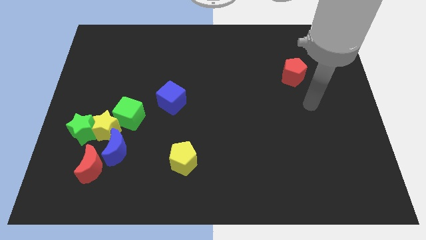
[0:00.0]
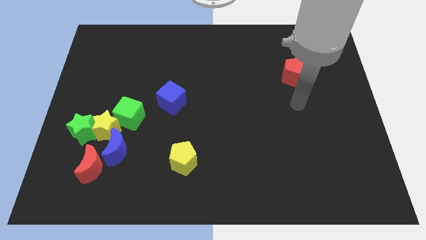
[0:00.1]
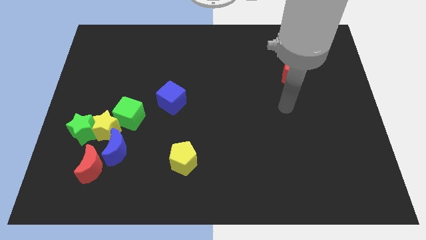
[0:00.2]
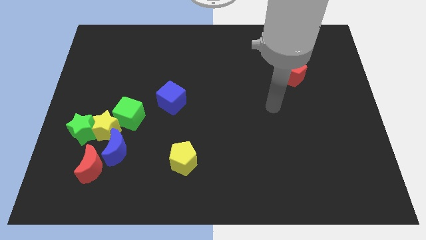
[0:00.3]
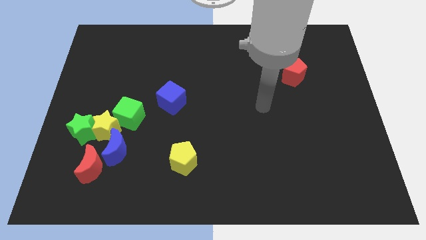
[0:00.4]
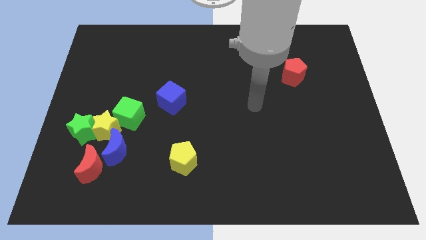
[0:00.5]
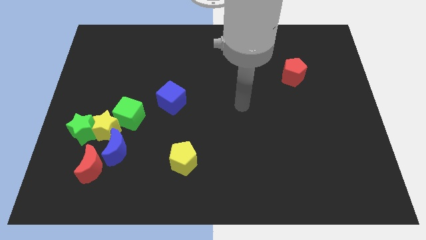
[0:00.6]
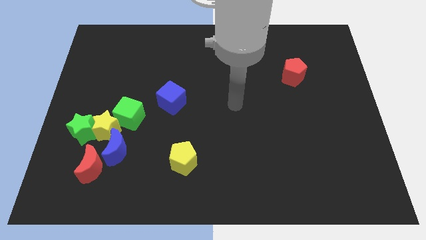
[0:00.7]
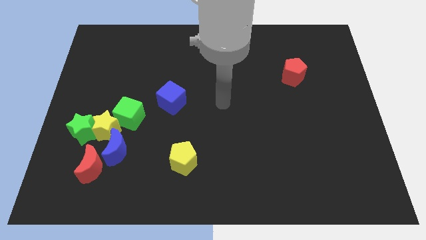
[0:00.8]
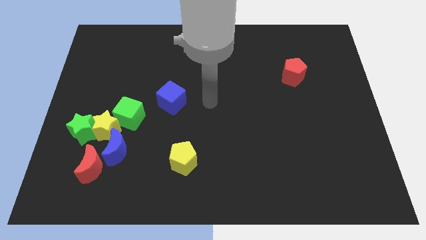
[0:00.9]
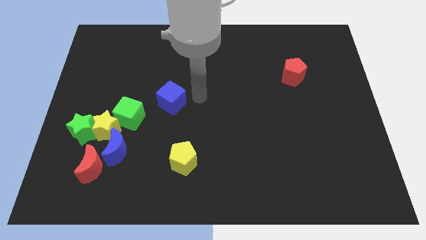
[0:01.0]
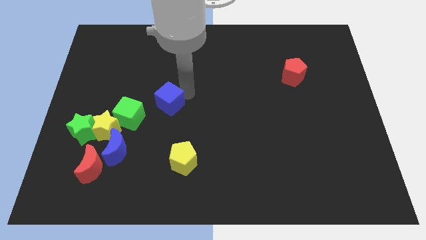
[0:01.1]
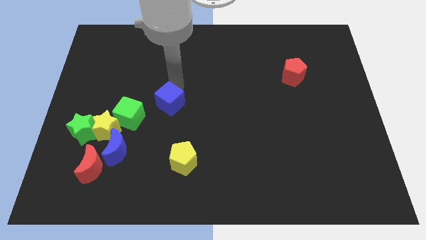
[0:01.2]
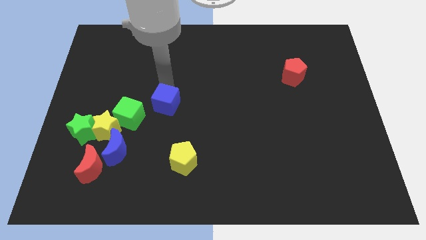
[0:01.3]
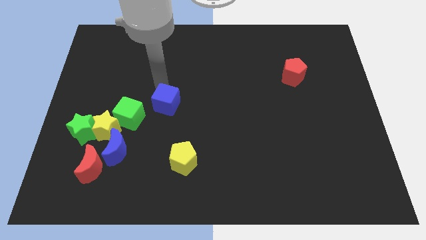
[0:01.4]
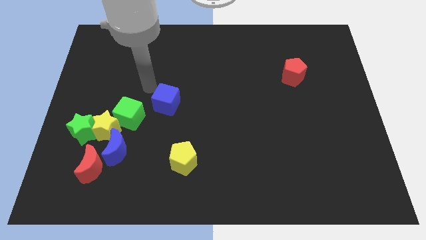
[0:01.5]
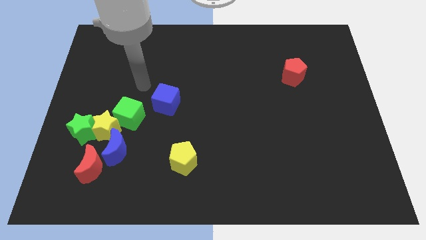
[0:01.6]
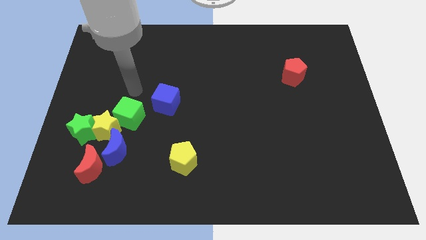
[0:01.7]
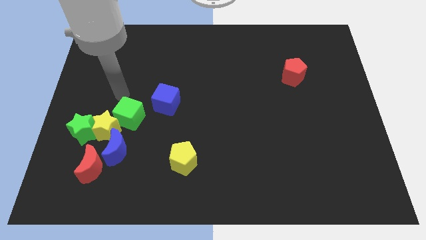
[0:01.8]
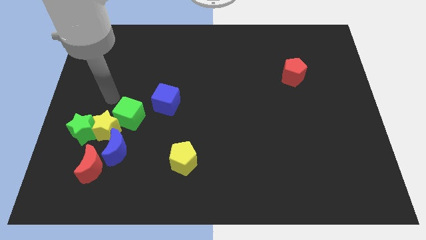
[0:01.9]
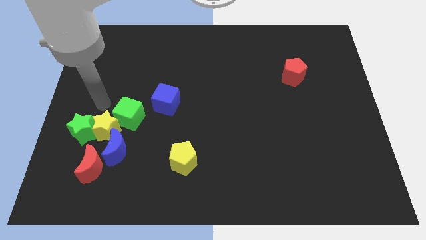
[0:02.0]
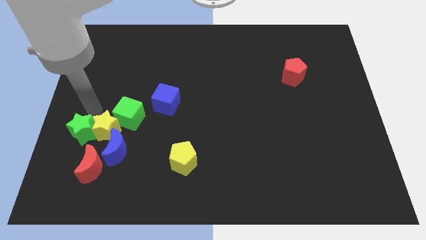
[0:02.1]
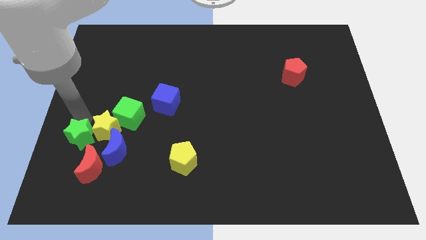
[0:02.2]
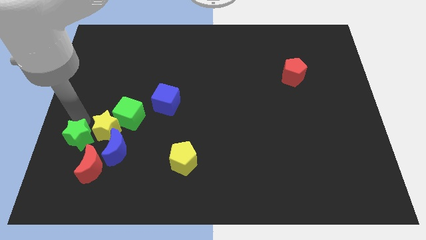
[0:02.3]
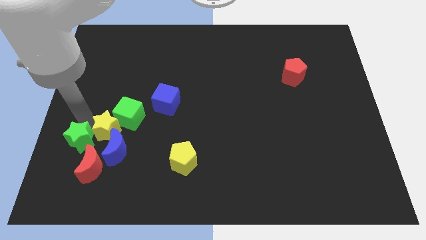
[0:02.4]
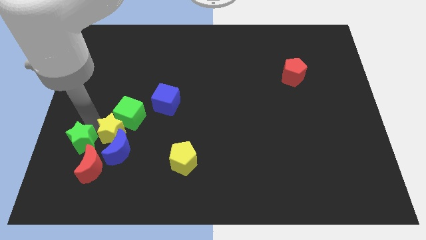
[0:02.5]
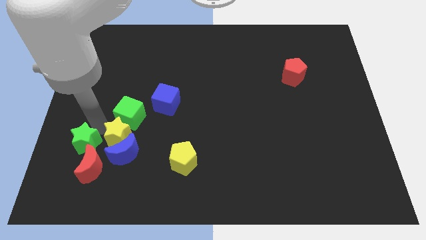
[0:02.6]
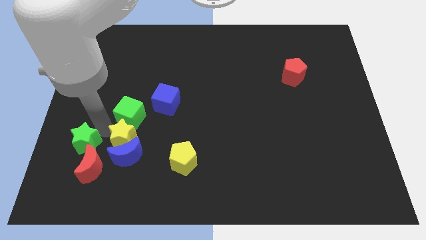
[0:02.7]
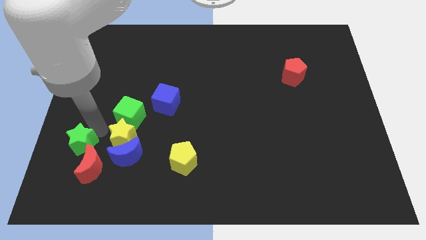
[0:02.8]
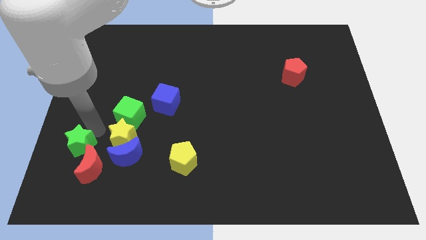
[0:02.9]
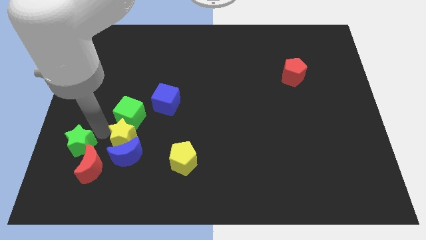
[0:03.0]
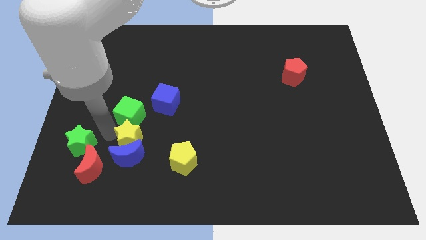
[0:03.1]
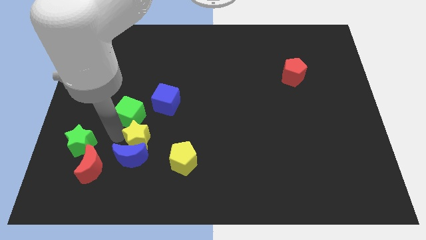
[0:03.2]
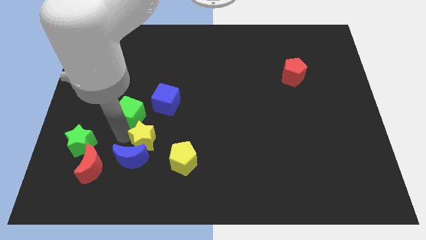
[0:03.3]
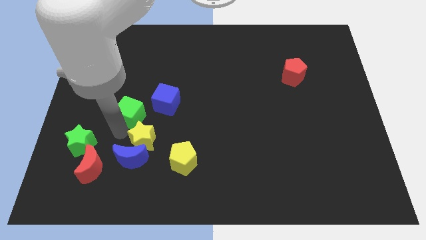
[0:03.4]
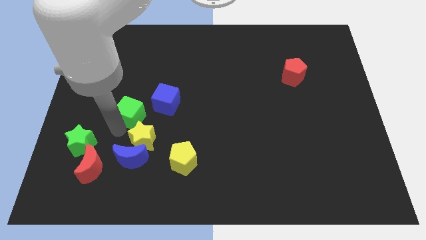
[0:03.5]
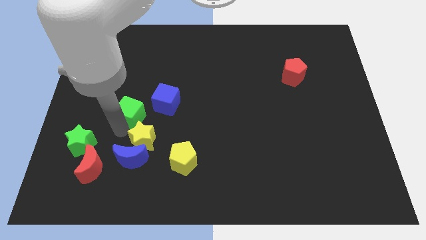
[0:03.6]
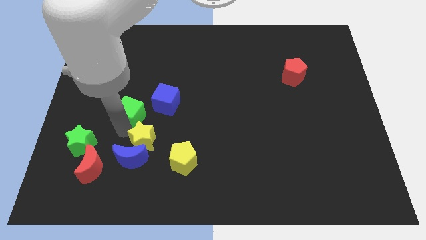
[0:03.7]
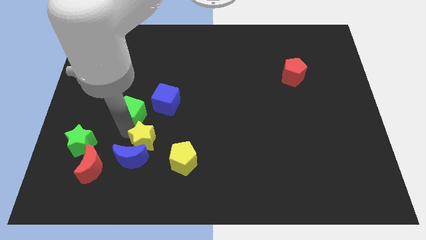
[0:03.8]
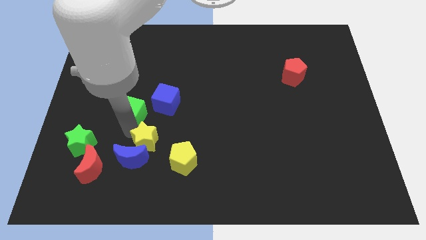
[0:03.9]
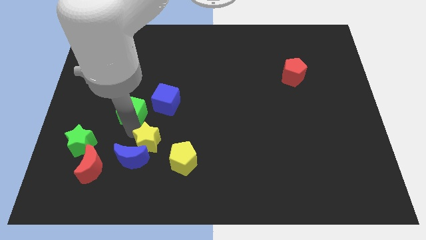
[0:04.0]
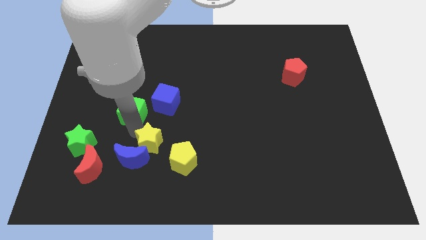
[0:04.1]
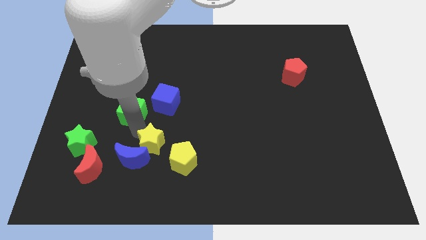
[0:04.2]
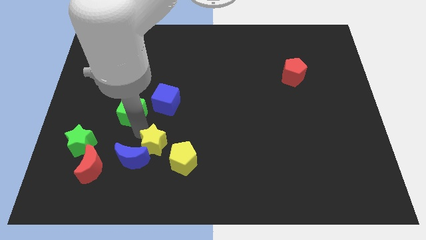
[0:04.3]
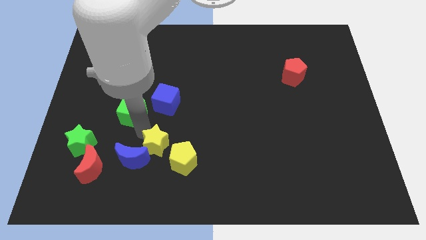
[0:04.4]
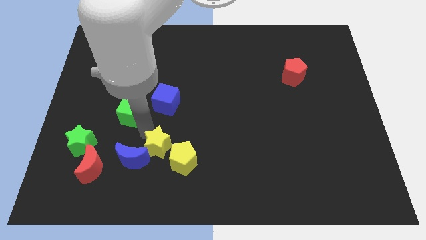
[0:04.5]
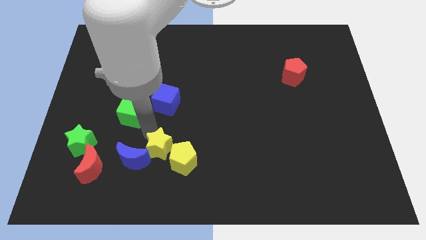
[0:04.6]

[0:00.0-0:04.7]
slide the yellow star to the yellow pentagon

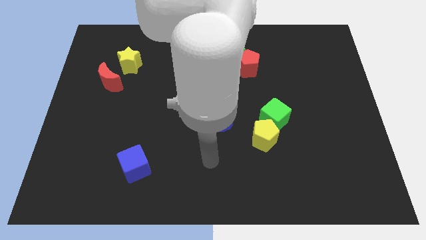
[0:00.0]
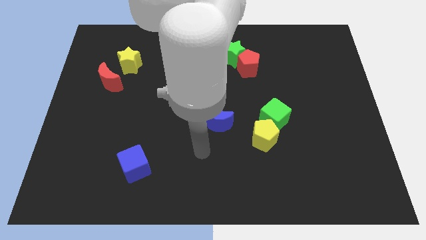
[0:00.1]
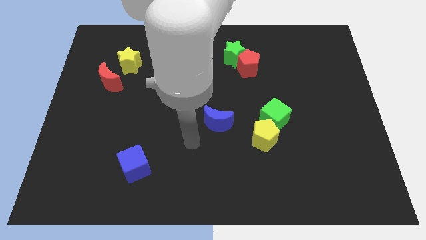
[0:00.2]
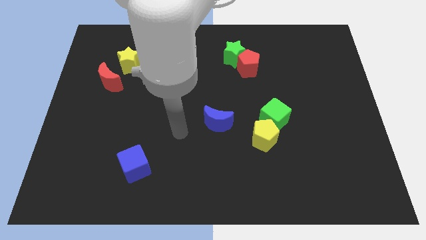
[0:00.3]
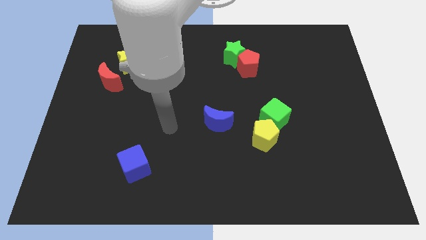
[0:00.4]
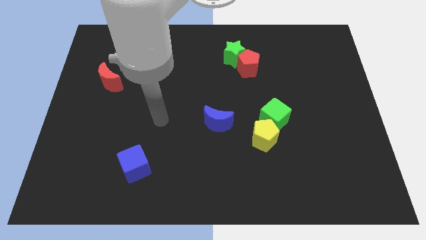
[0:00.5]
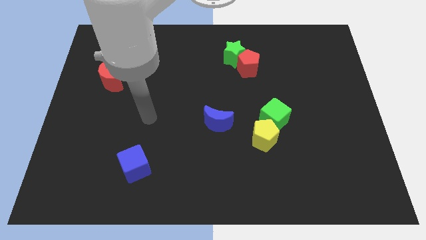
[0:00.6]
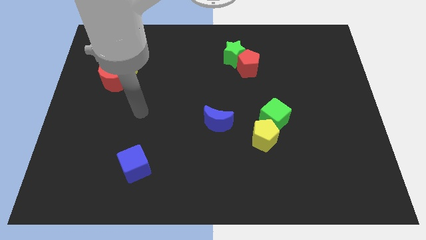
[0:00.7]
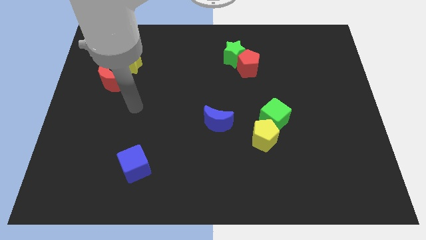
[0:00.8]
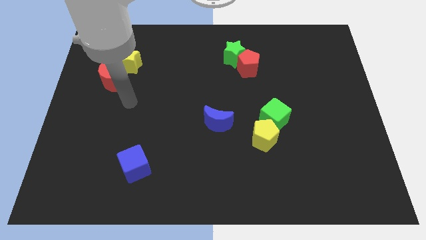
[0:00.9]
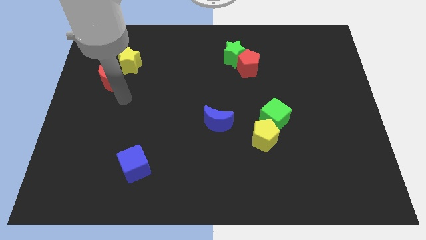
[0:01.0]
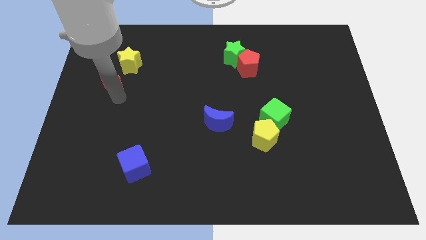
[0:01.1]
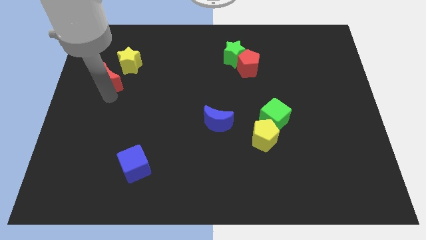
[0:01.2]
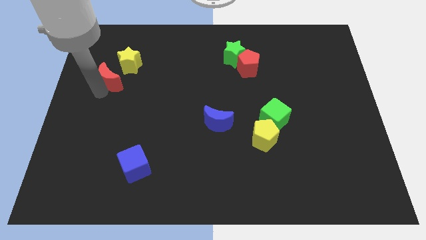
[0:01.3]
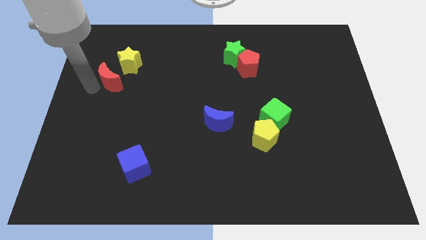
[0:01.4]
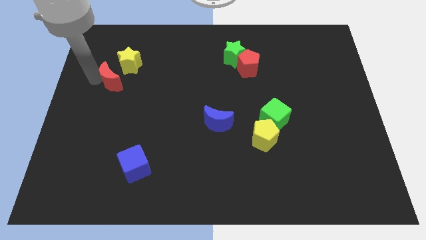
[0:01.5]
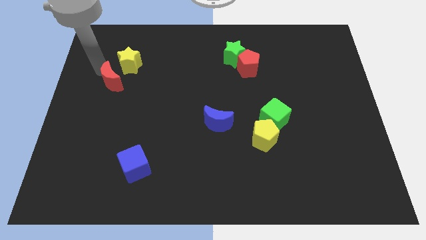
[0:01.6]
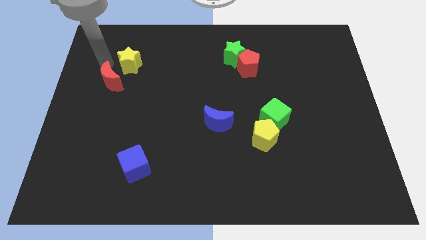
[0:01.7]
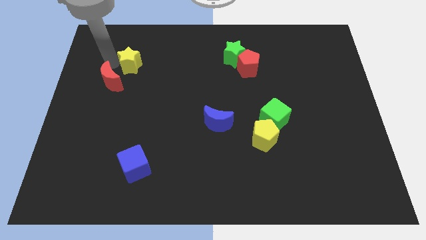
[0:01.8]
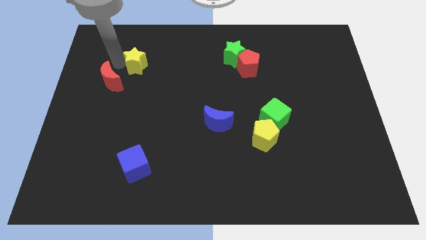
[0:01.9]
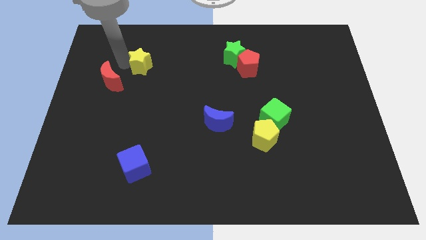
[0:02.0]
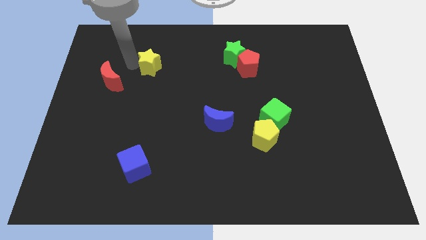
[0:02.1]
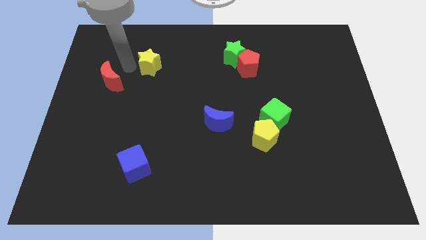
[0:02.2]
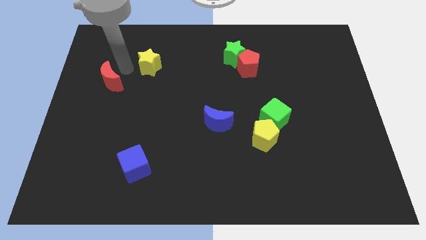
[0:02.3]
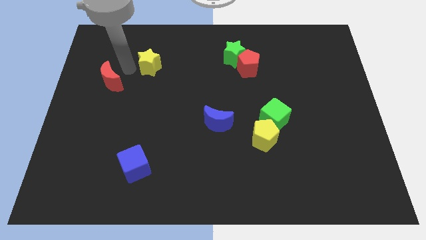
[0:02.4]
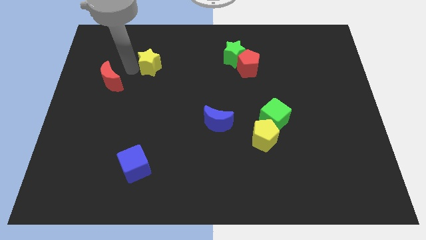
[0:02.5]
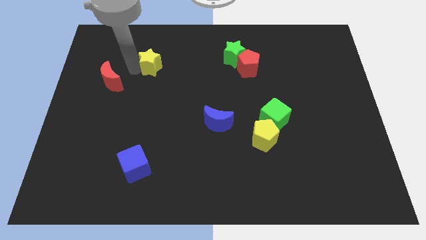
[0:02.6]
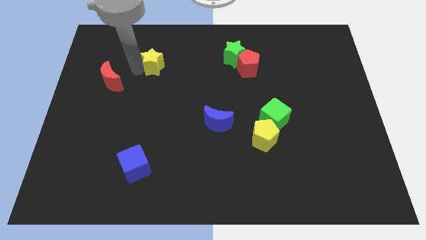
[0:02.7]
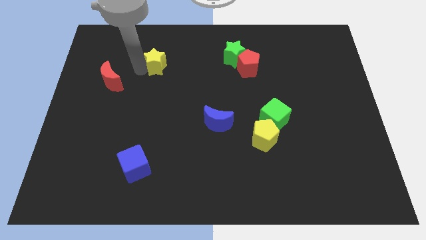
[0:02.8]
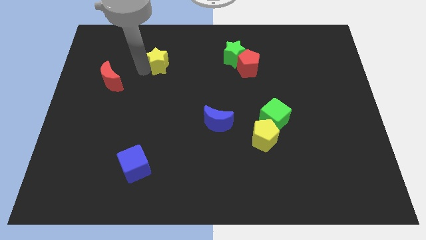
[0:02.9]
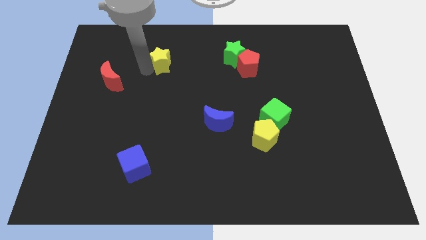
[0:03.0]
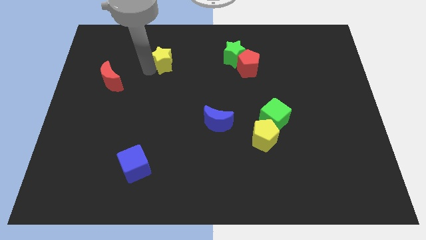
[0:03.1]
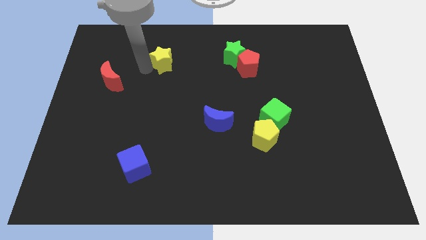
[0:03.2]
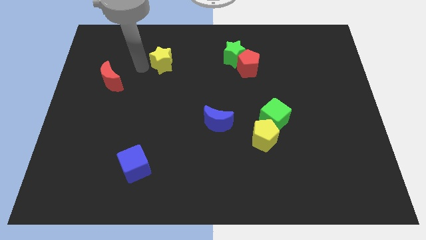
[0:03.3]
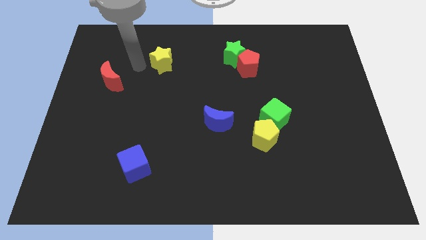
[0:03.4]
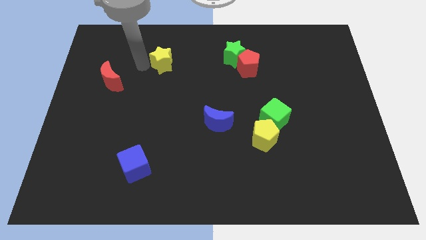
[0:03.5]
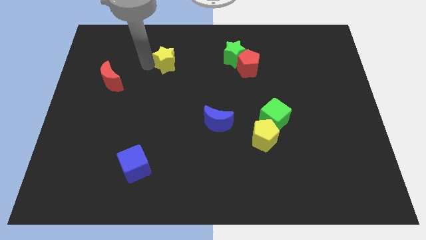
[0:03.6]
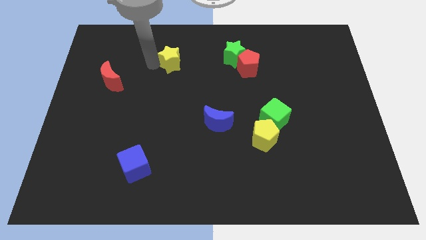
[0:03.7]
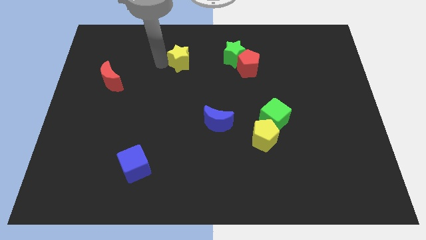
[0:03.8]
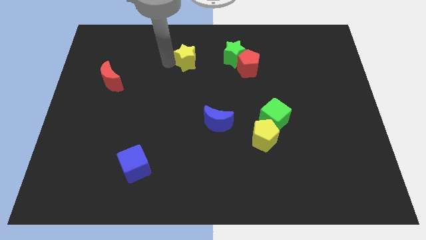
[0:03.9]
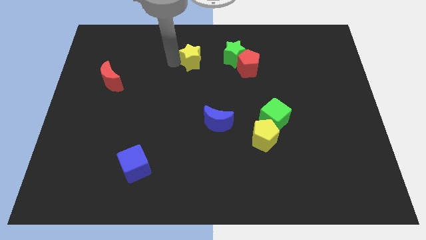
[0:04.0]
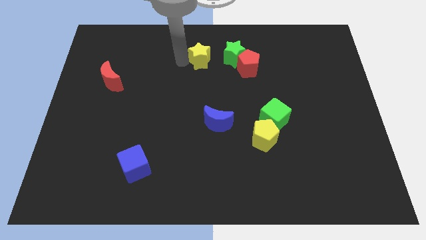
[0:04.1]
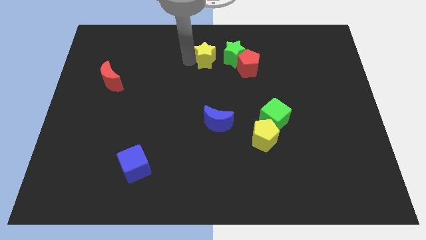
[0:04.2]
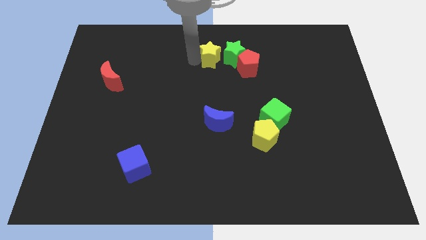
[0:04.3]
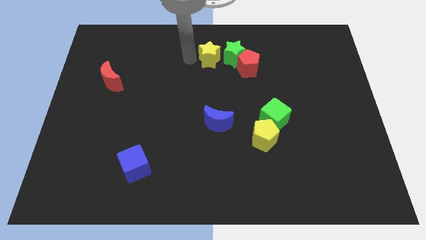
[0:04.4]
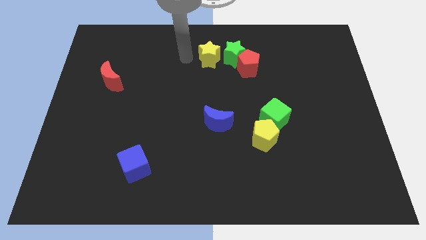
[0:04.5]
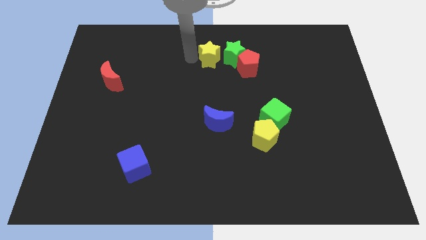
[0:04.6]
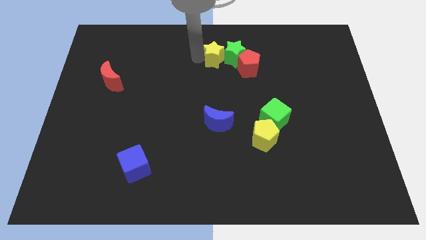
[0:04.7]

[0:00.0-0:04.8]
push the yellow star close to the green star
